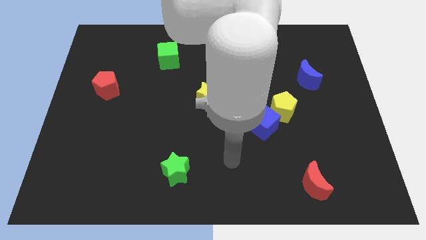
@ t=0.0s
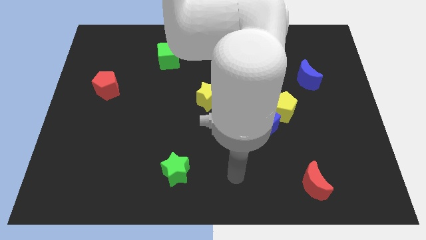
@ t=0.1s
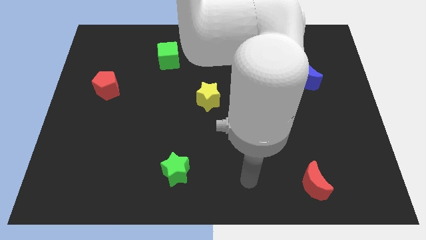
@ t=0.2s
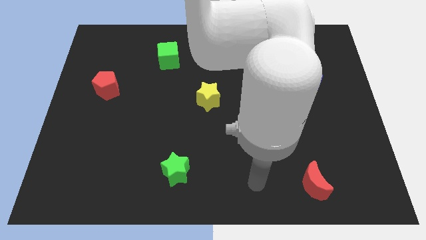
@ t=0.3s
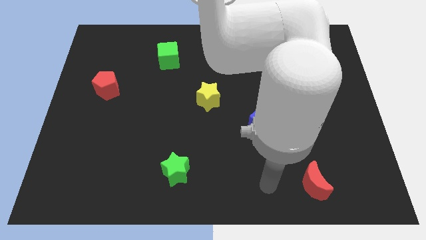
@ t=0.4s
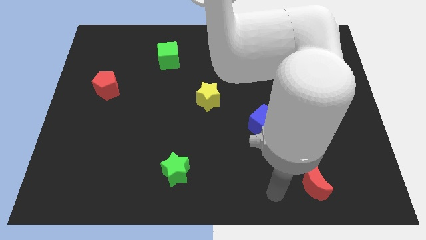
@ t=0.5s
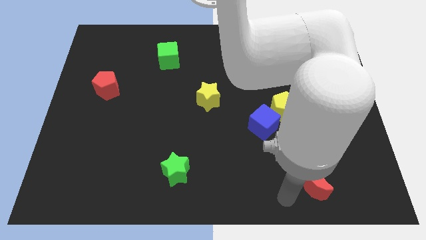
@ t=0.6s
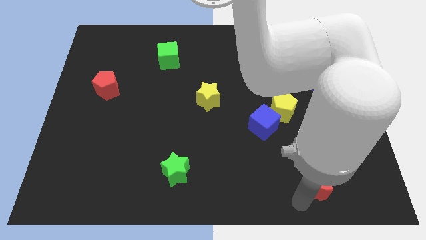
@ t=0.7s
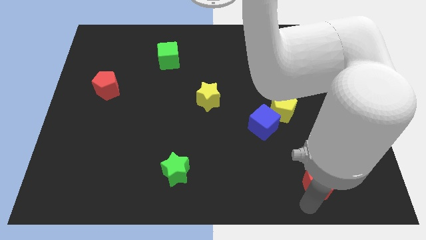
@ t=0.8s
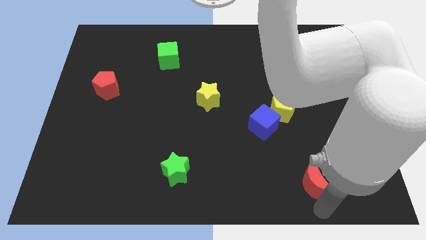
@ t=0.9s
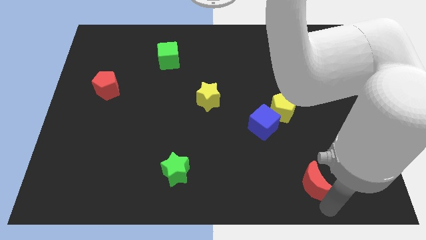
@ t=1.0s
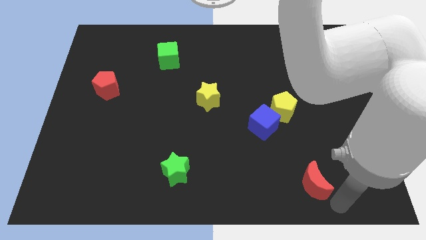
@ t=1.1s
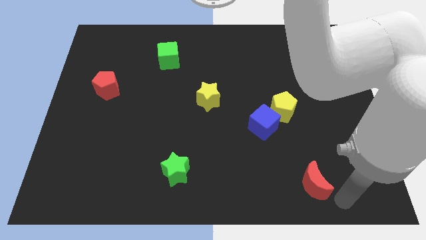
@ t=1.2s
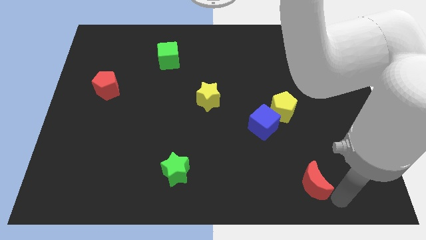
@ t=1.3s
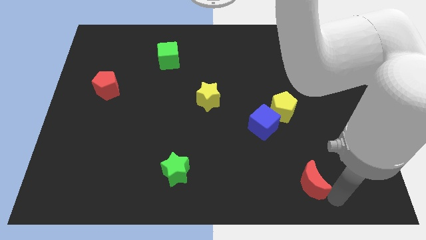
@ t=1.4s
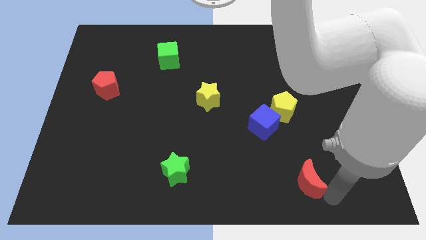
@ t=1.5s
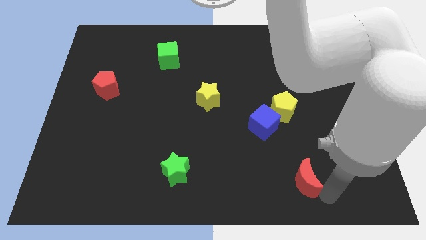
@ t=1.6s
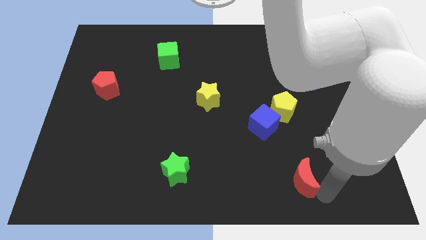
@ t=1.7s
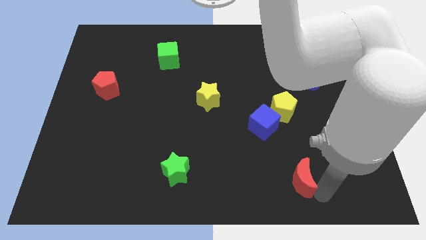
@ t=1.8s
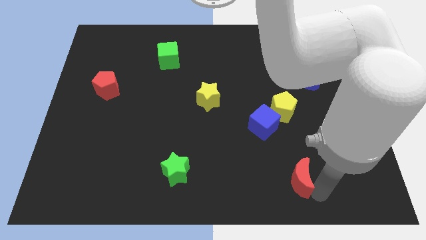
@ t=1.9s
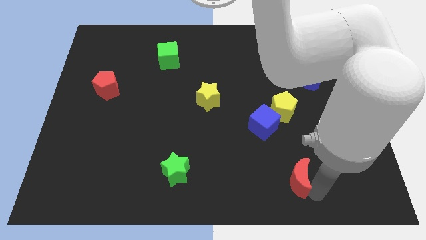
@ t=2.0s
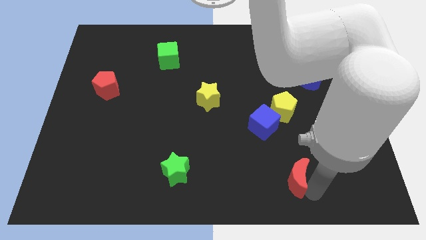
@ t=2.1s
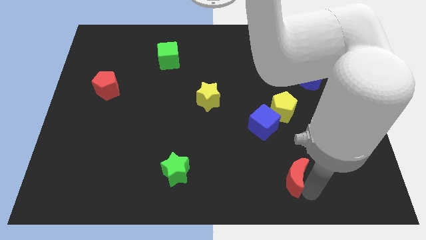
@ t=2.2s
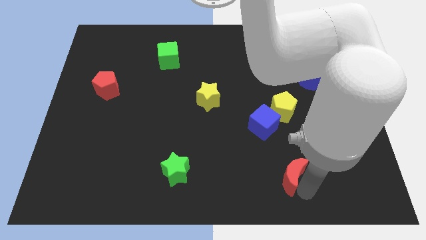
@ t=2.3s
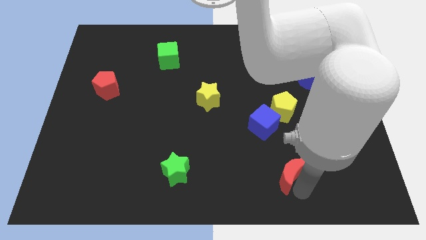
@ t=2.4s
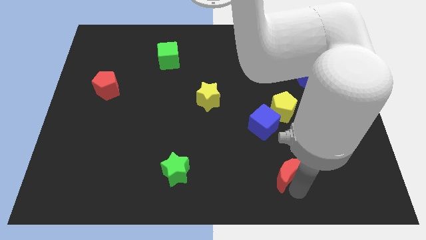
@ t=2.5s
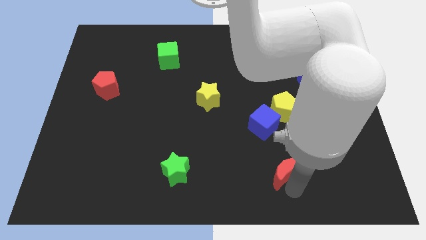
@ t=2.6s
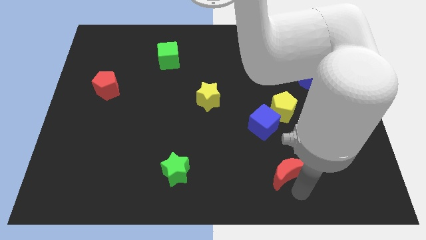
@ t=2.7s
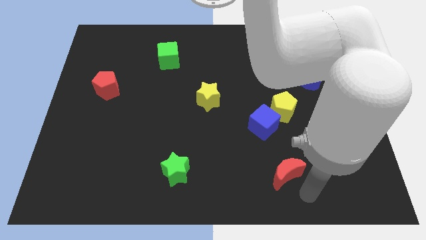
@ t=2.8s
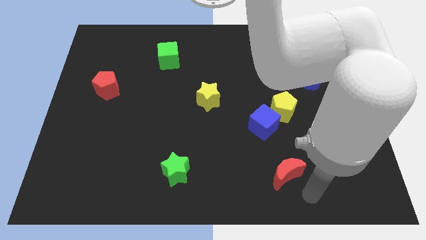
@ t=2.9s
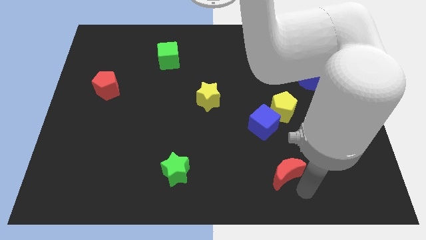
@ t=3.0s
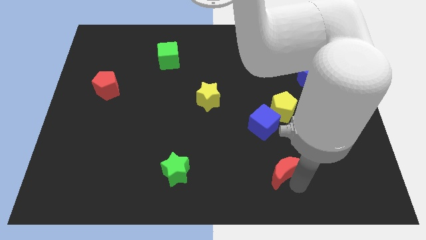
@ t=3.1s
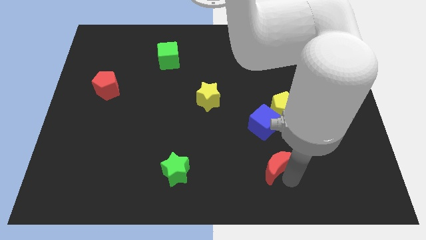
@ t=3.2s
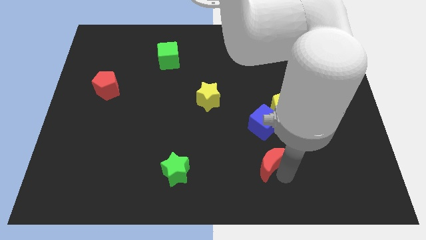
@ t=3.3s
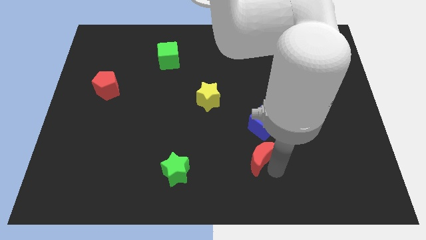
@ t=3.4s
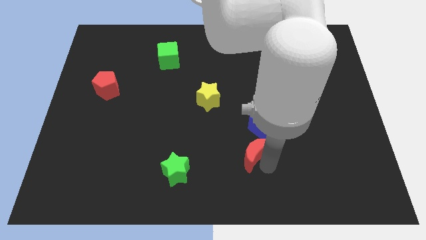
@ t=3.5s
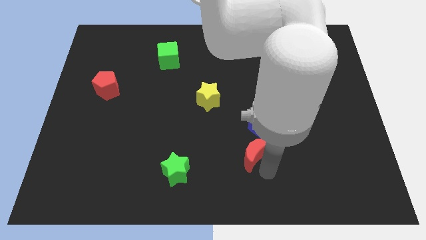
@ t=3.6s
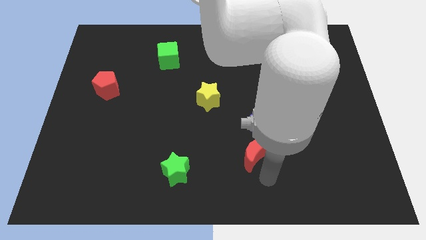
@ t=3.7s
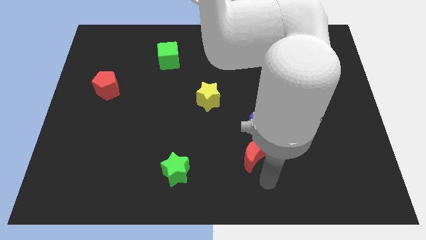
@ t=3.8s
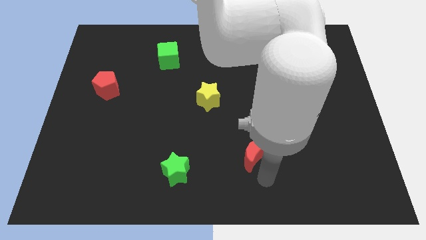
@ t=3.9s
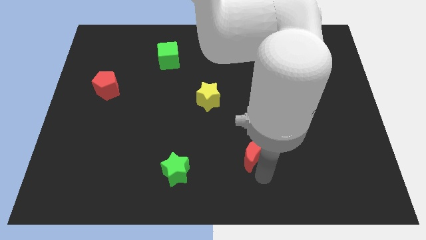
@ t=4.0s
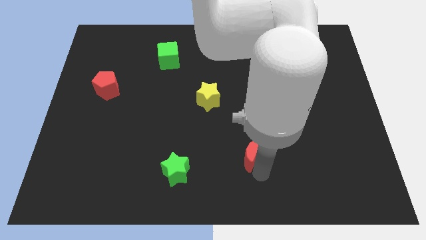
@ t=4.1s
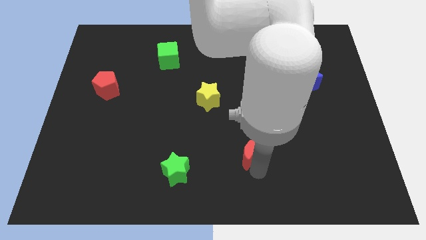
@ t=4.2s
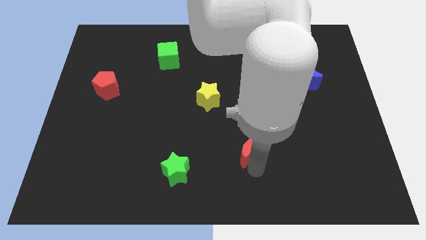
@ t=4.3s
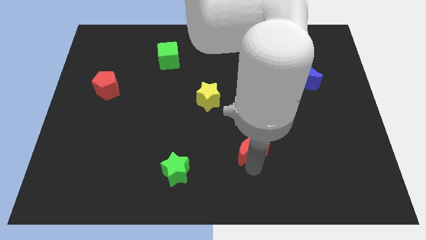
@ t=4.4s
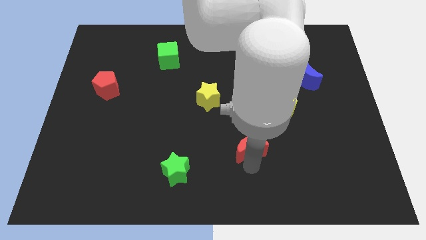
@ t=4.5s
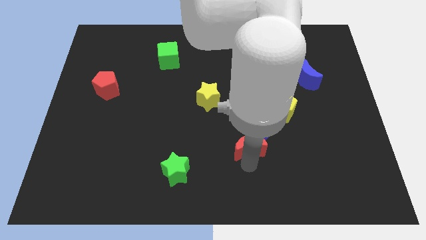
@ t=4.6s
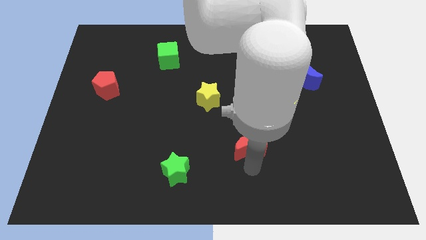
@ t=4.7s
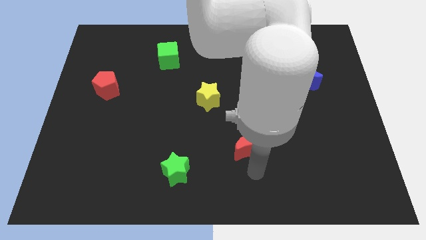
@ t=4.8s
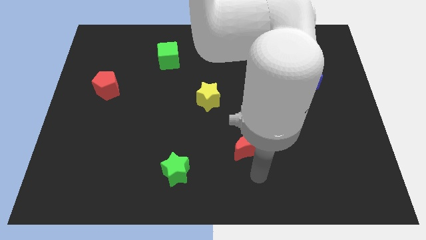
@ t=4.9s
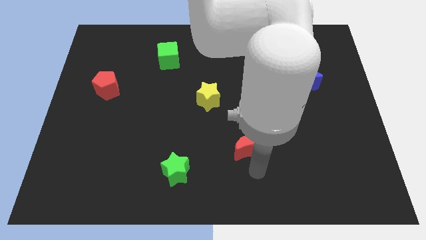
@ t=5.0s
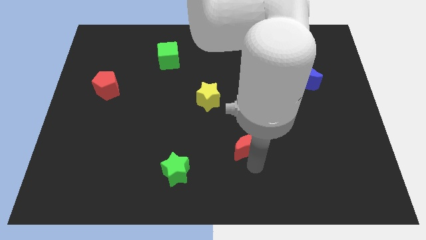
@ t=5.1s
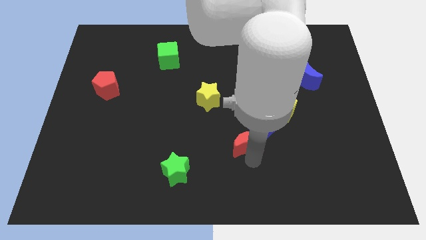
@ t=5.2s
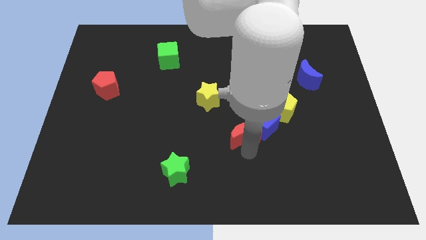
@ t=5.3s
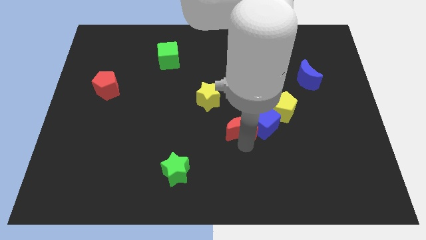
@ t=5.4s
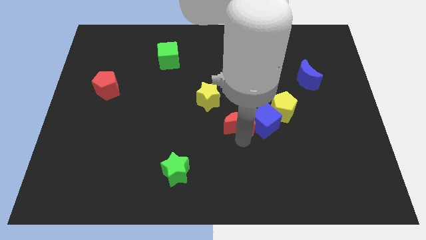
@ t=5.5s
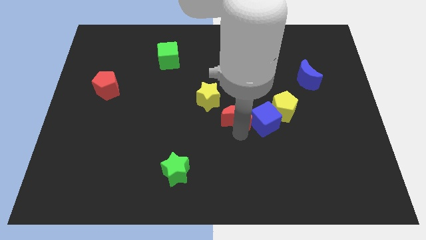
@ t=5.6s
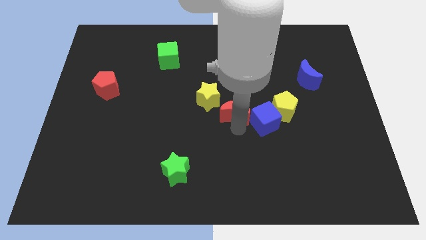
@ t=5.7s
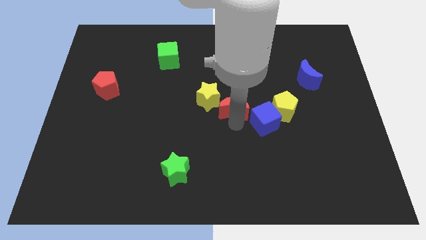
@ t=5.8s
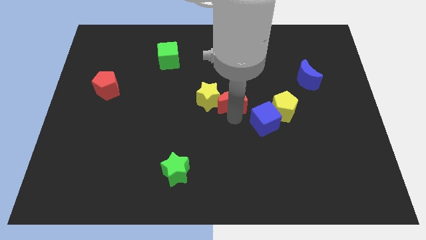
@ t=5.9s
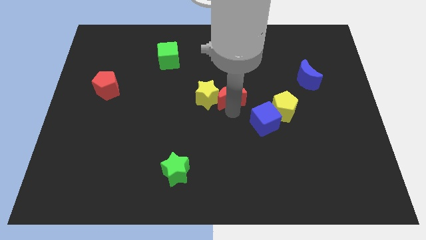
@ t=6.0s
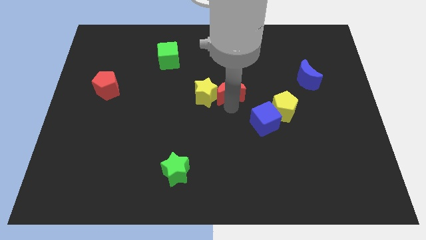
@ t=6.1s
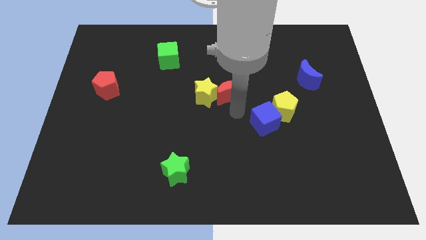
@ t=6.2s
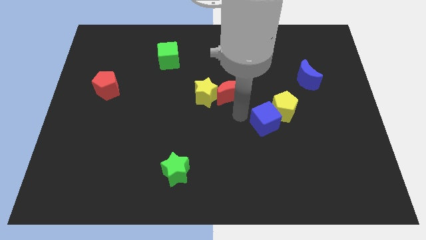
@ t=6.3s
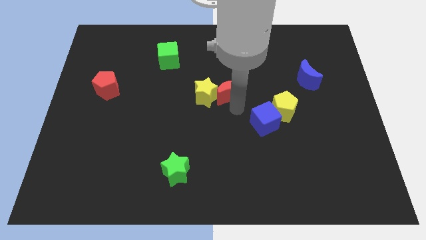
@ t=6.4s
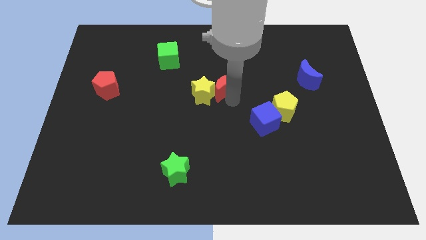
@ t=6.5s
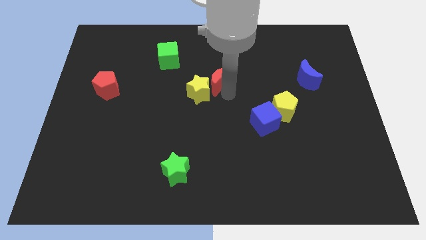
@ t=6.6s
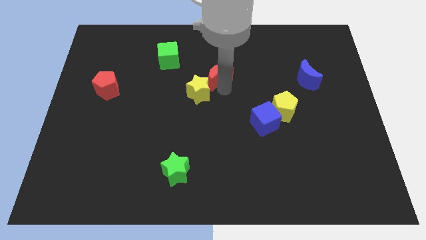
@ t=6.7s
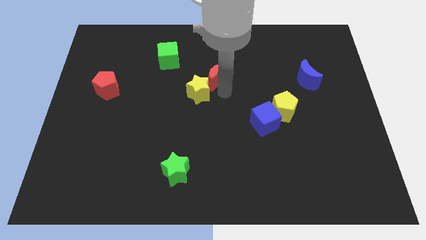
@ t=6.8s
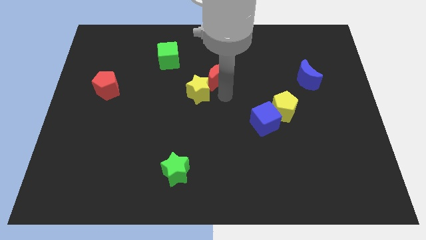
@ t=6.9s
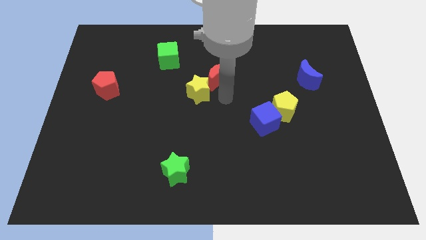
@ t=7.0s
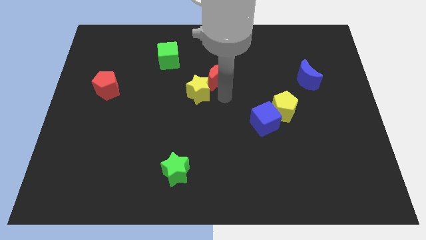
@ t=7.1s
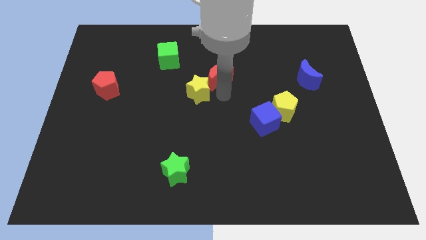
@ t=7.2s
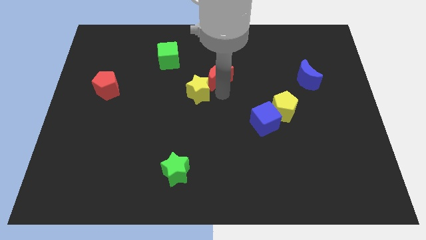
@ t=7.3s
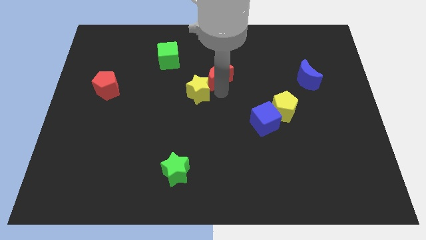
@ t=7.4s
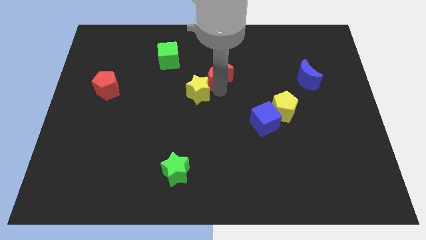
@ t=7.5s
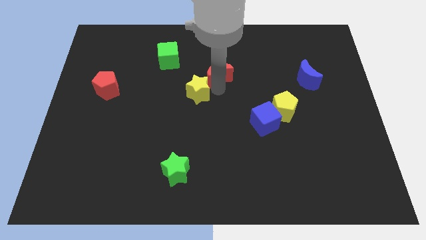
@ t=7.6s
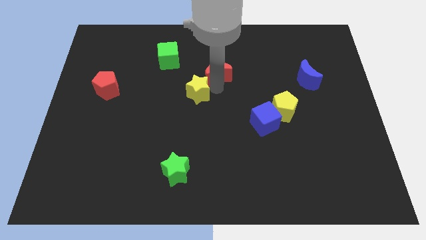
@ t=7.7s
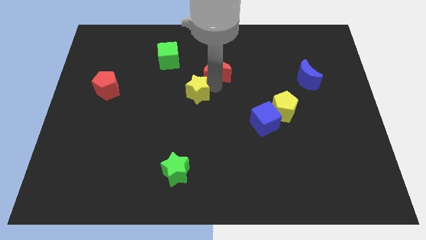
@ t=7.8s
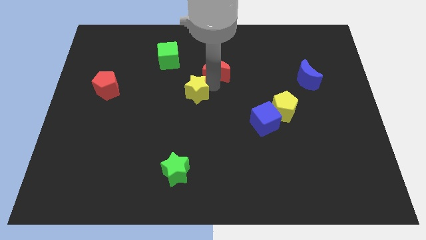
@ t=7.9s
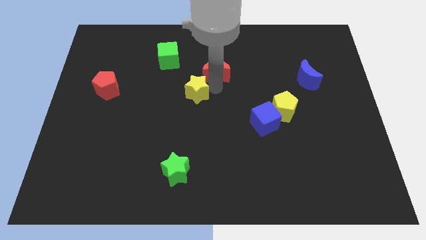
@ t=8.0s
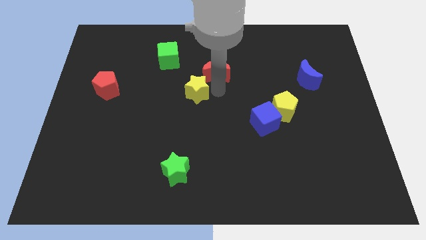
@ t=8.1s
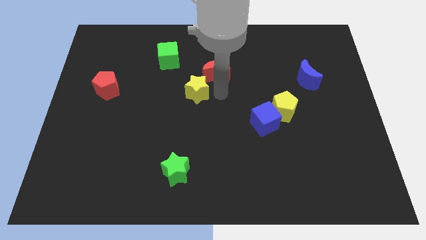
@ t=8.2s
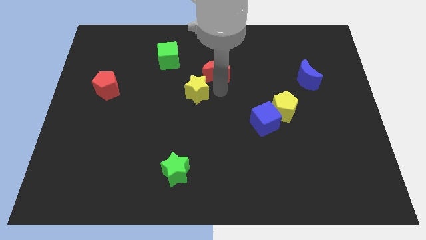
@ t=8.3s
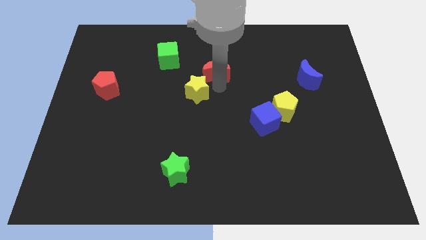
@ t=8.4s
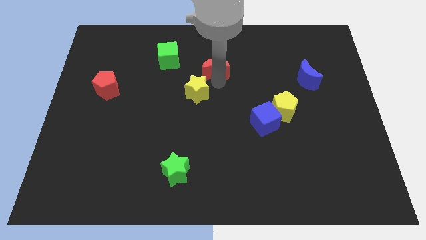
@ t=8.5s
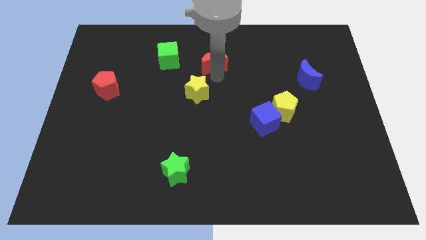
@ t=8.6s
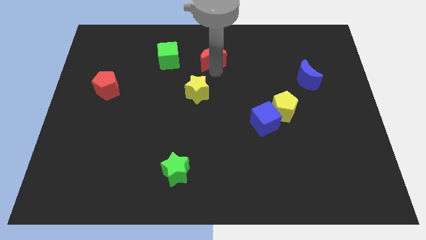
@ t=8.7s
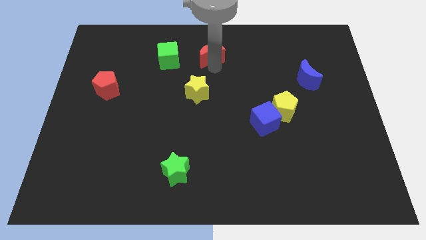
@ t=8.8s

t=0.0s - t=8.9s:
put the red moon to the top
